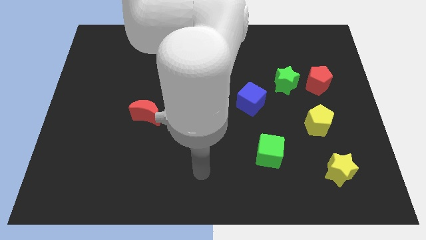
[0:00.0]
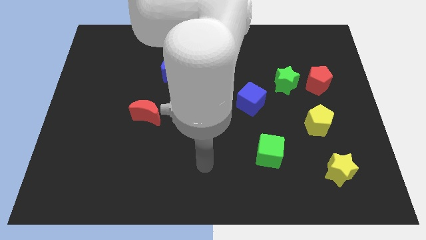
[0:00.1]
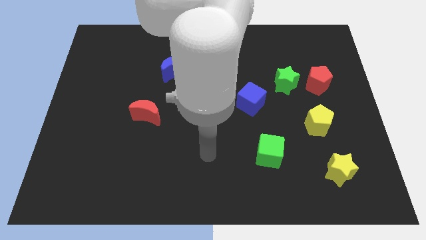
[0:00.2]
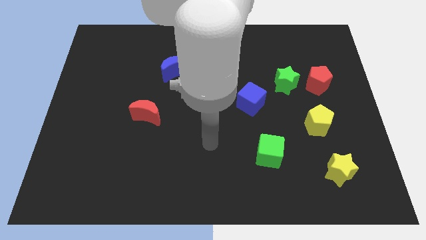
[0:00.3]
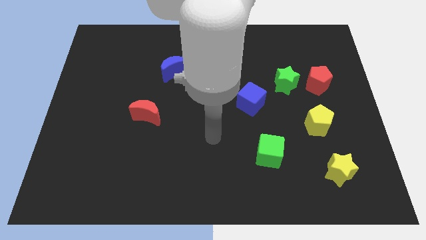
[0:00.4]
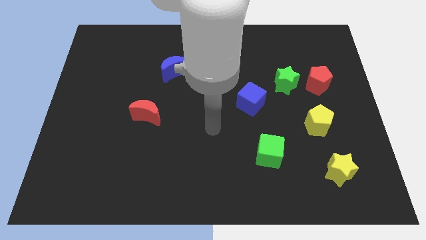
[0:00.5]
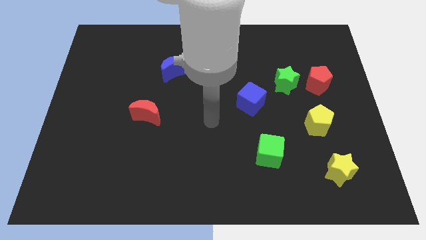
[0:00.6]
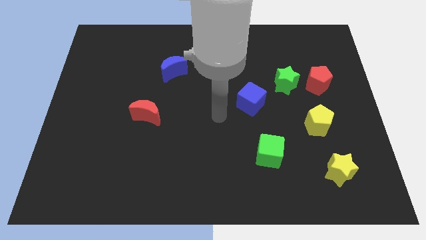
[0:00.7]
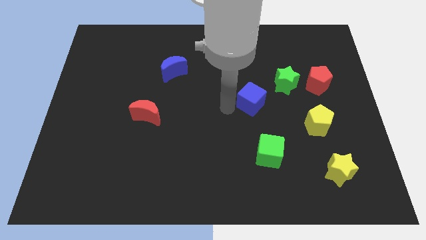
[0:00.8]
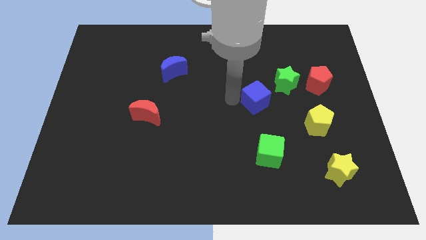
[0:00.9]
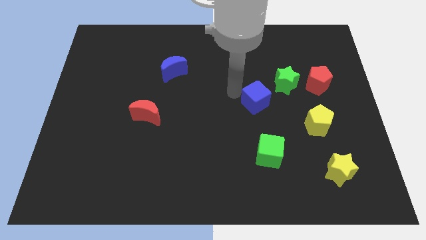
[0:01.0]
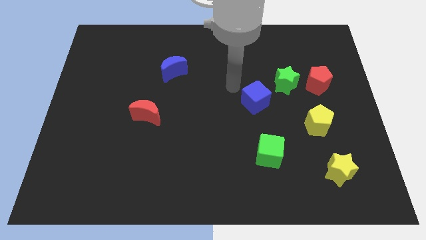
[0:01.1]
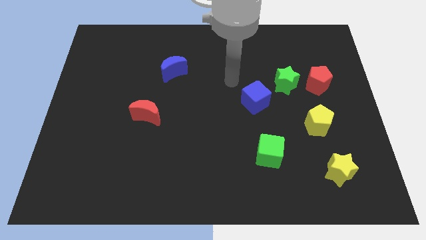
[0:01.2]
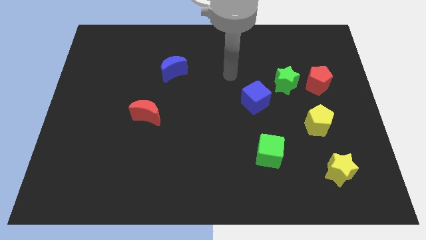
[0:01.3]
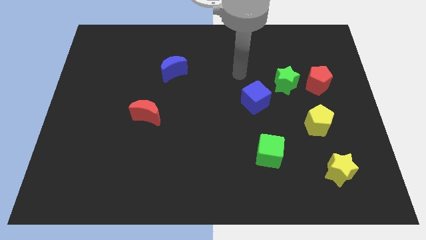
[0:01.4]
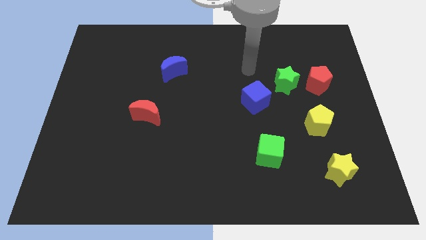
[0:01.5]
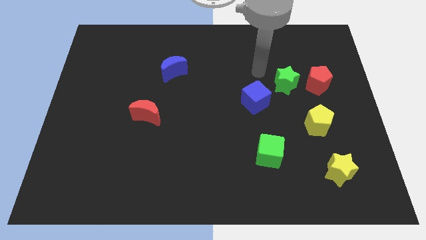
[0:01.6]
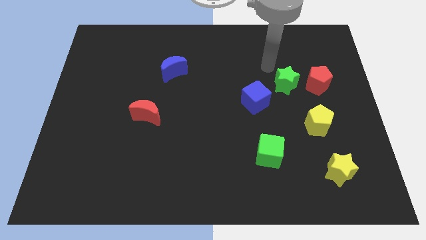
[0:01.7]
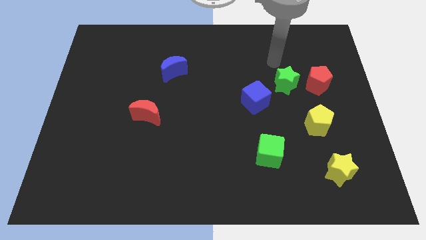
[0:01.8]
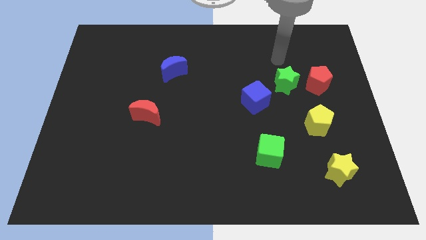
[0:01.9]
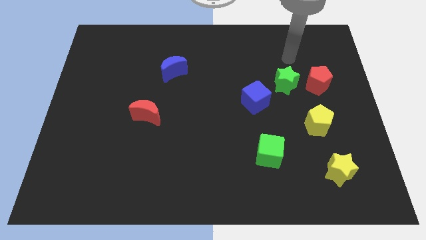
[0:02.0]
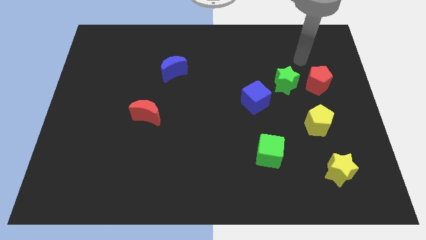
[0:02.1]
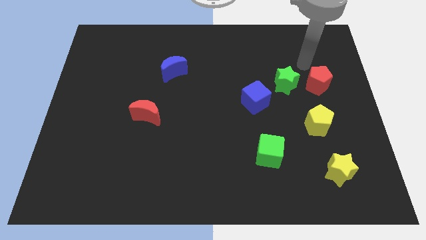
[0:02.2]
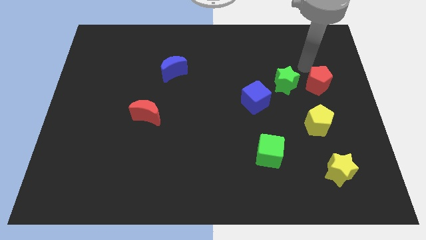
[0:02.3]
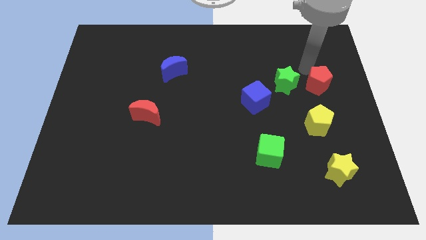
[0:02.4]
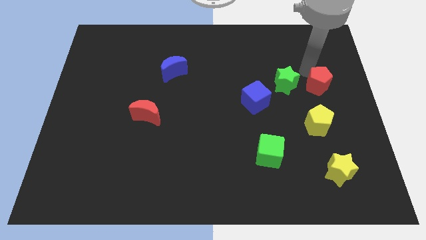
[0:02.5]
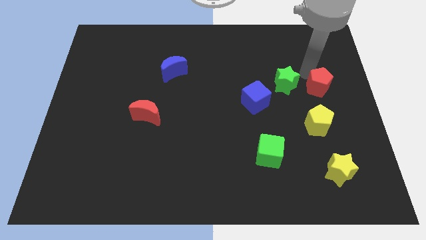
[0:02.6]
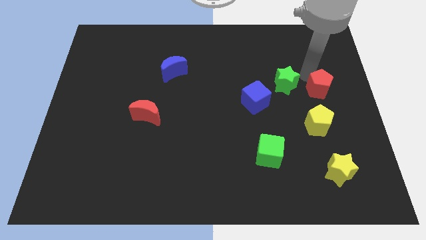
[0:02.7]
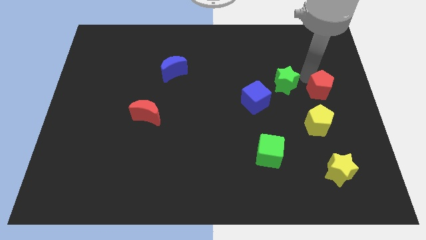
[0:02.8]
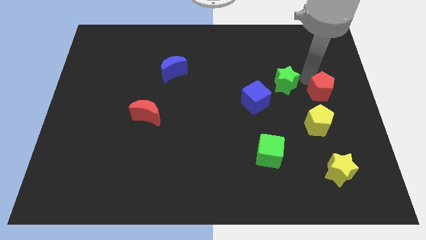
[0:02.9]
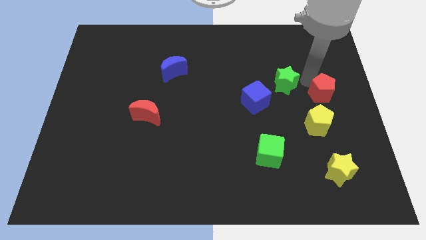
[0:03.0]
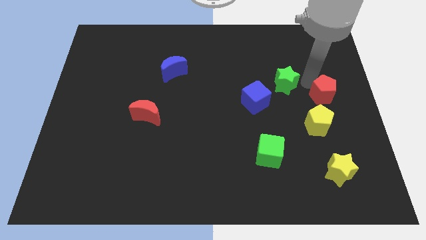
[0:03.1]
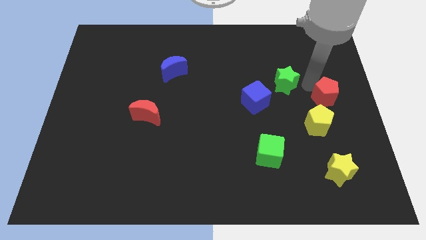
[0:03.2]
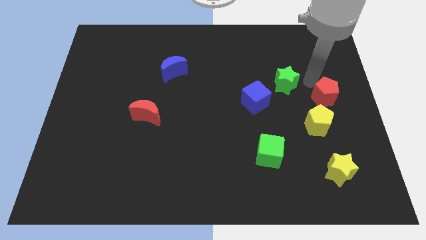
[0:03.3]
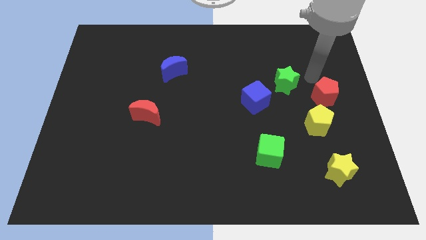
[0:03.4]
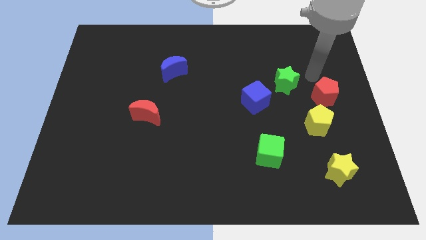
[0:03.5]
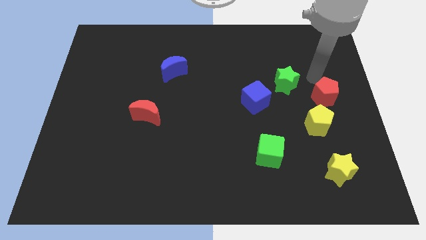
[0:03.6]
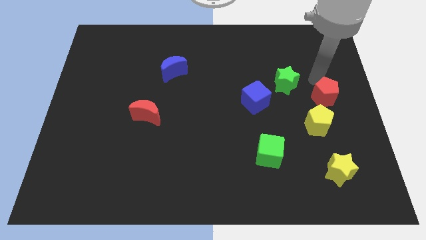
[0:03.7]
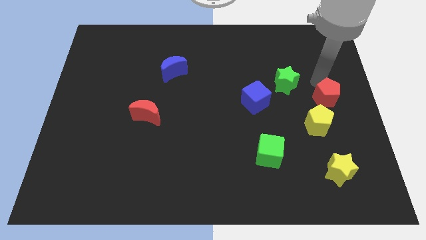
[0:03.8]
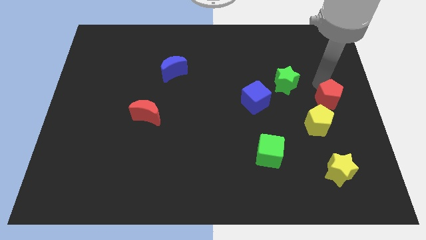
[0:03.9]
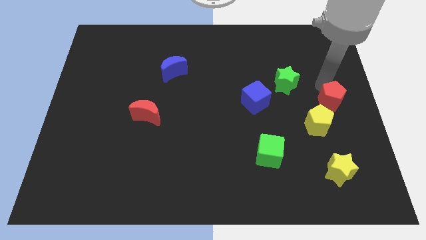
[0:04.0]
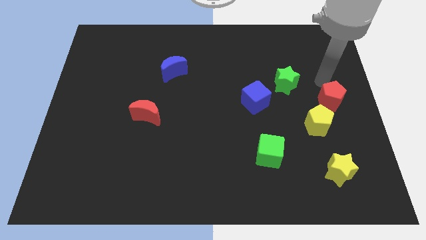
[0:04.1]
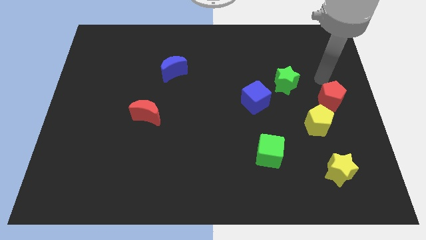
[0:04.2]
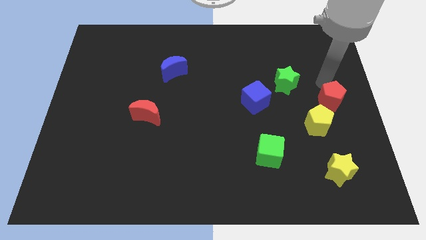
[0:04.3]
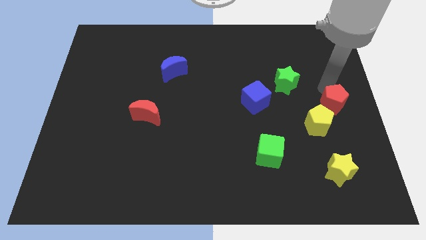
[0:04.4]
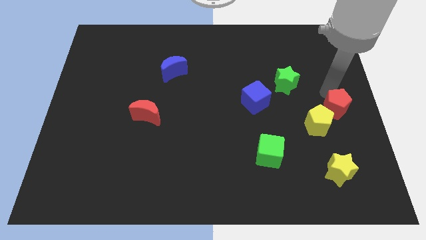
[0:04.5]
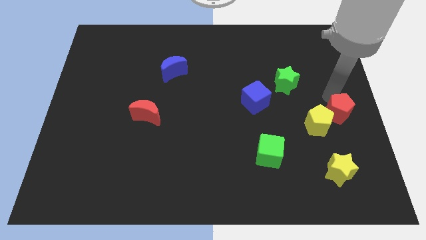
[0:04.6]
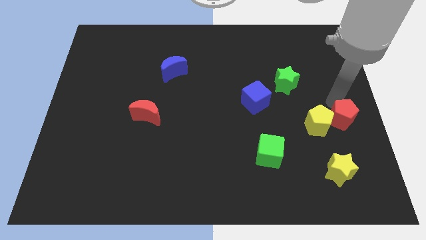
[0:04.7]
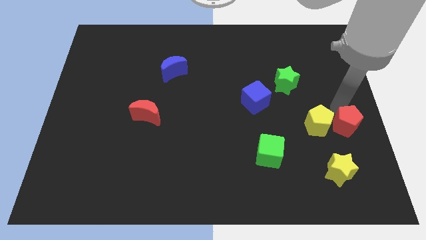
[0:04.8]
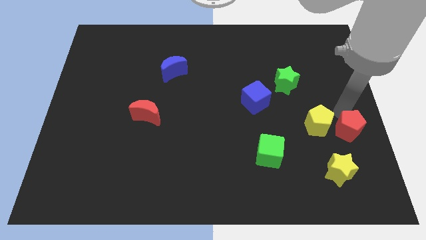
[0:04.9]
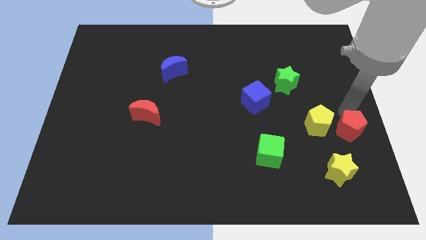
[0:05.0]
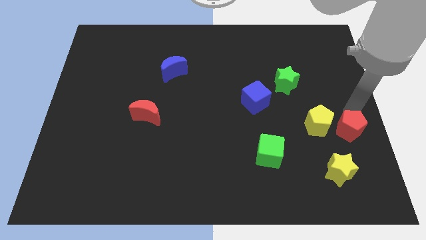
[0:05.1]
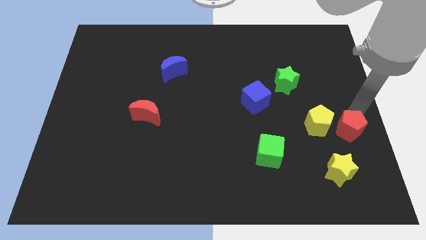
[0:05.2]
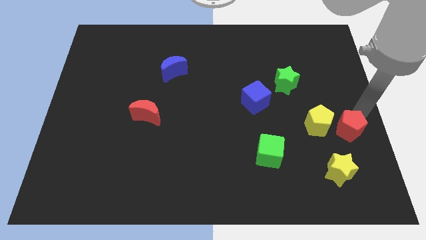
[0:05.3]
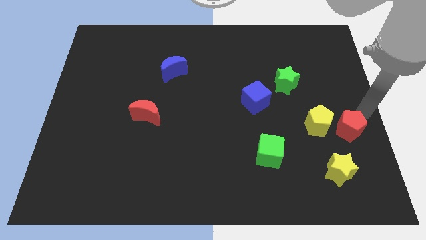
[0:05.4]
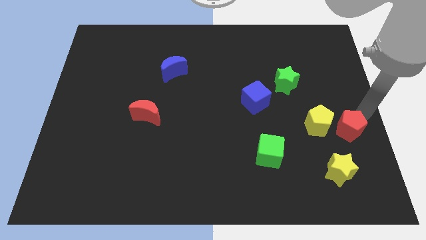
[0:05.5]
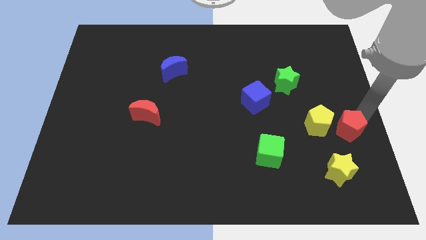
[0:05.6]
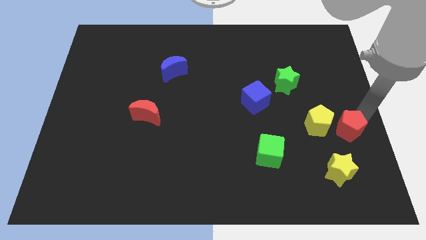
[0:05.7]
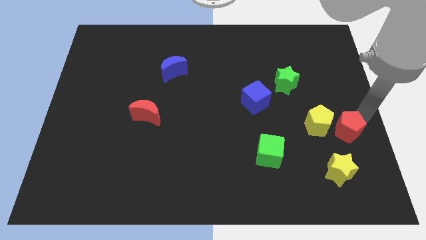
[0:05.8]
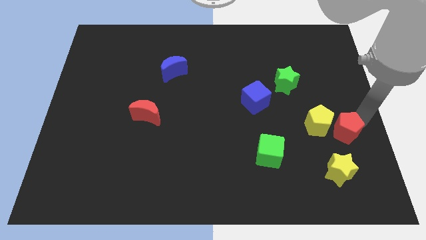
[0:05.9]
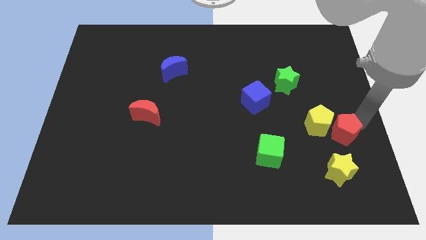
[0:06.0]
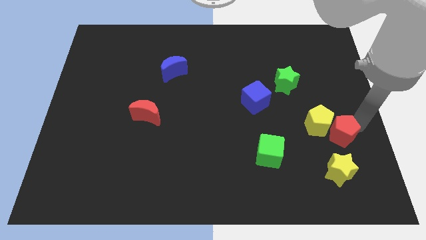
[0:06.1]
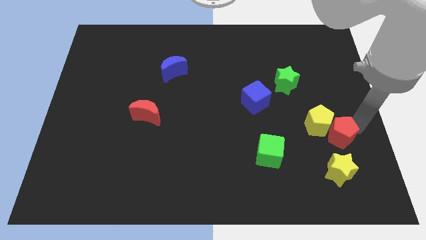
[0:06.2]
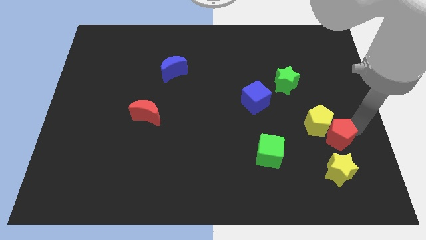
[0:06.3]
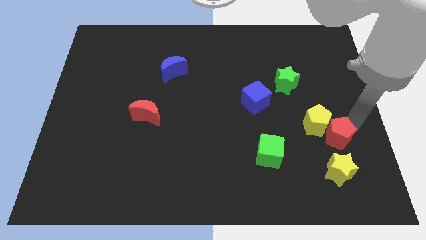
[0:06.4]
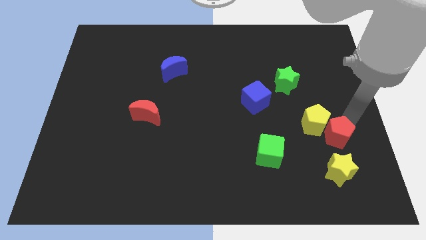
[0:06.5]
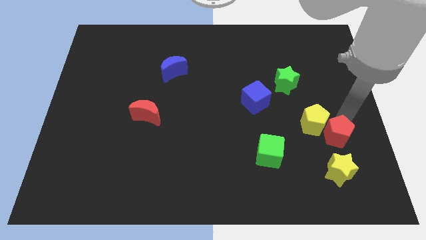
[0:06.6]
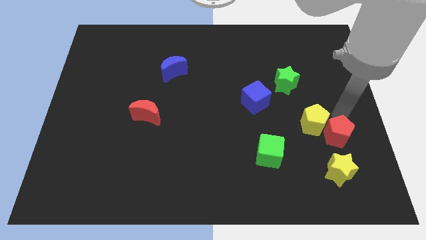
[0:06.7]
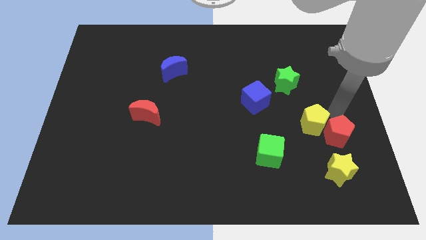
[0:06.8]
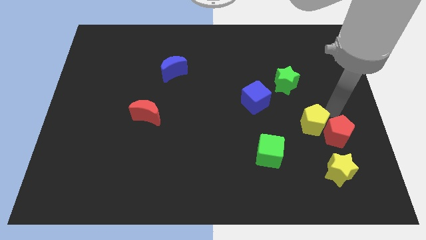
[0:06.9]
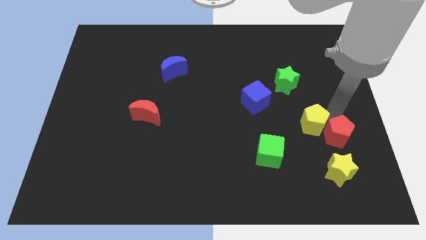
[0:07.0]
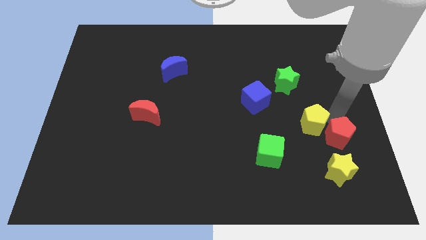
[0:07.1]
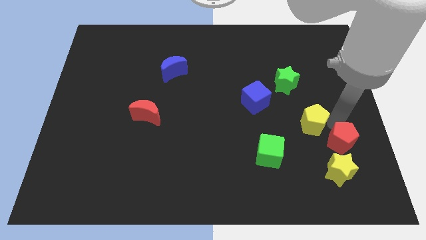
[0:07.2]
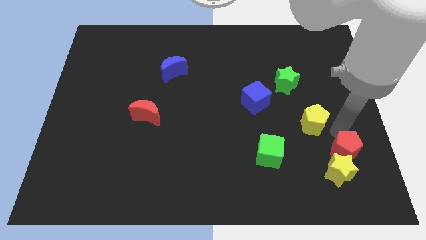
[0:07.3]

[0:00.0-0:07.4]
move the red pentagon next to the yellow star
